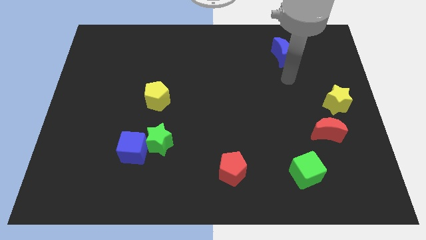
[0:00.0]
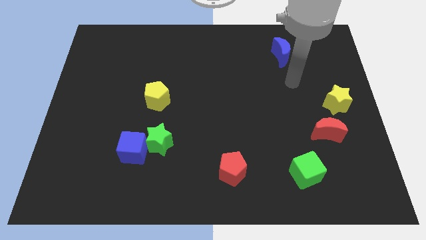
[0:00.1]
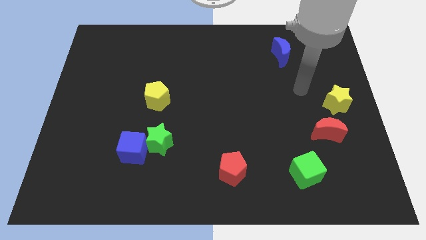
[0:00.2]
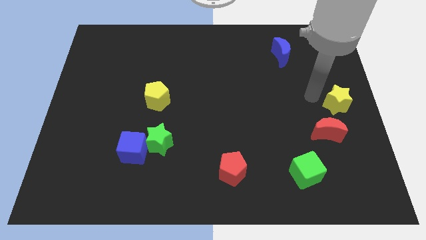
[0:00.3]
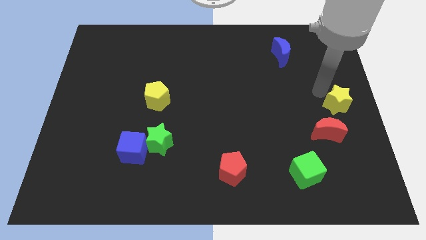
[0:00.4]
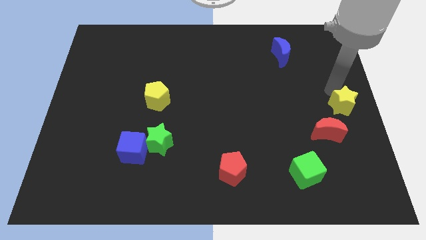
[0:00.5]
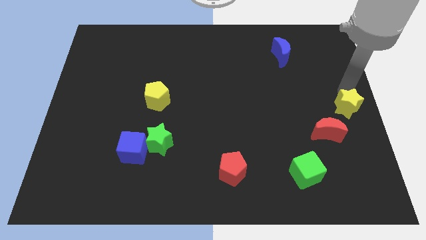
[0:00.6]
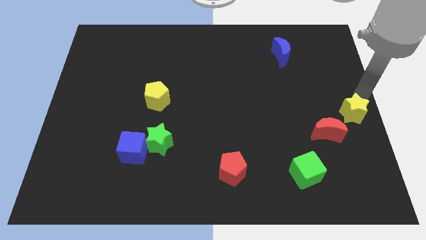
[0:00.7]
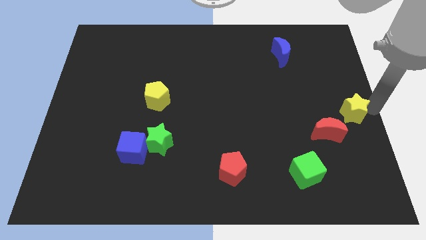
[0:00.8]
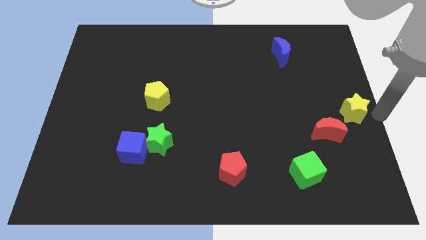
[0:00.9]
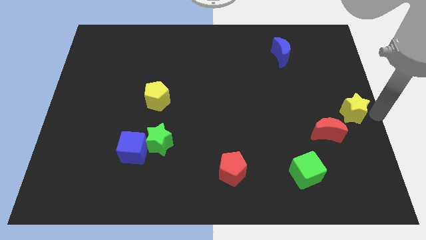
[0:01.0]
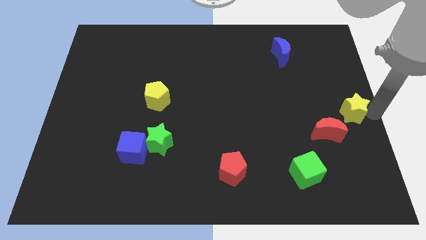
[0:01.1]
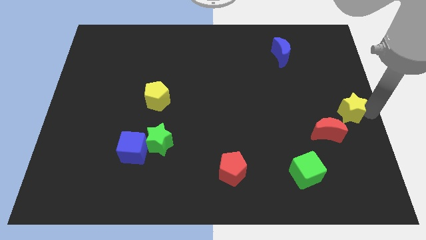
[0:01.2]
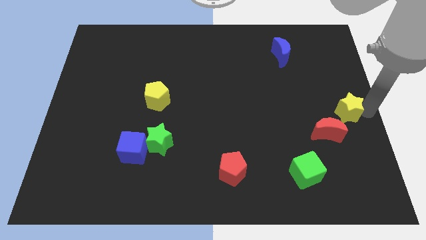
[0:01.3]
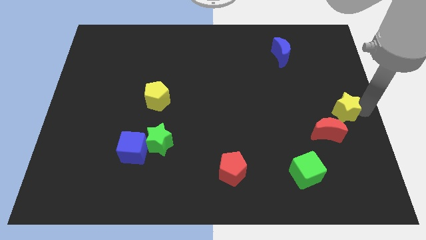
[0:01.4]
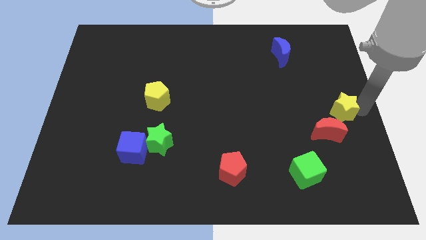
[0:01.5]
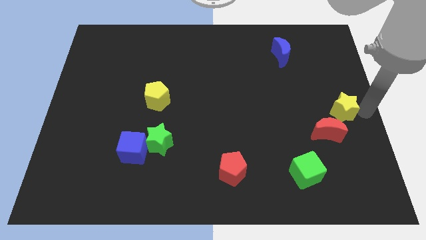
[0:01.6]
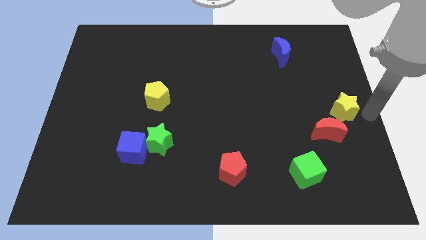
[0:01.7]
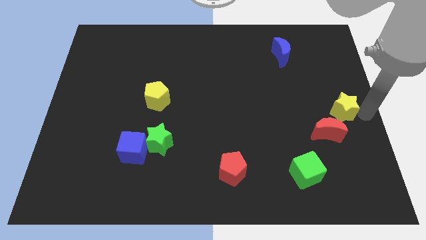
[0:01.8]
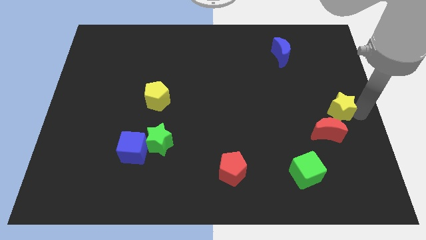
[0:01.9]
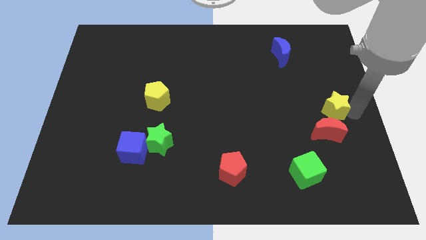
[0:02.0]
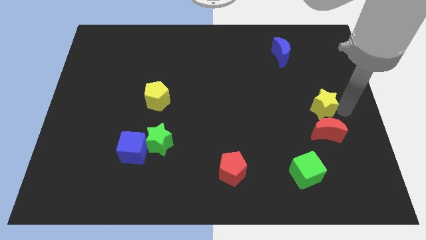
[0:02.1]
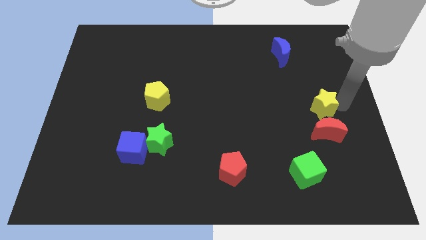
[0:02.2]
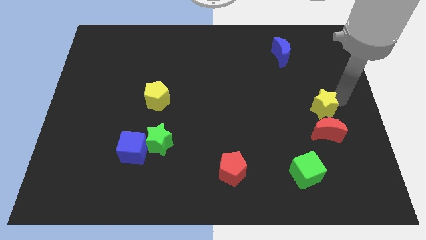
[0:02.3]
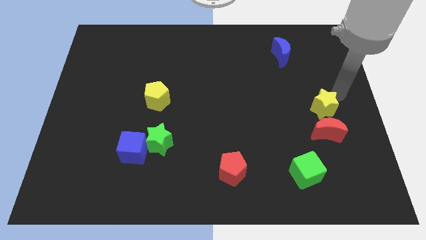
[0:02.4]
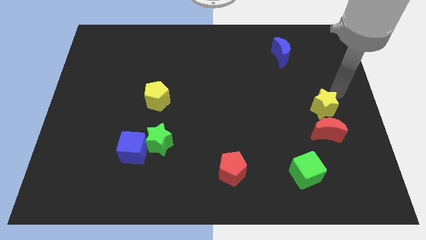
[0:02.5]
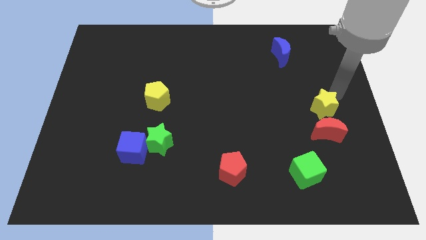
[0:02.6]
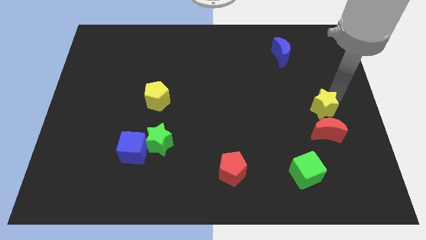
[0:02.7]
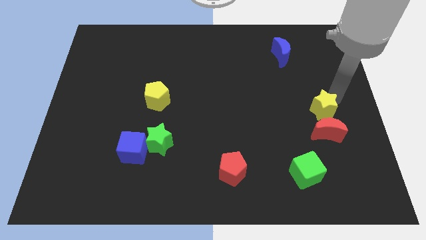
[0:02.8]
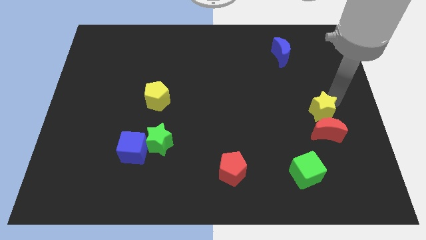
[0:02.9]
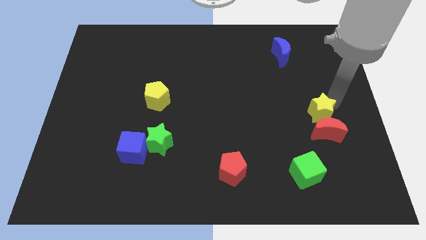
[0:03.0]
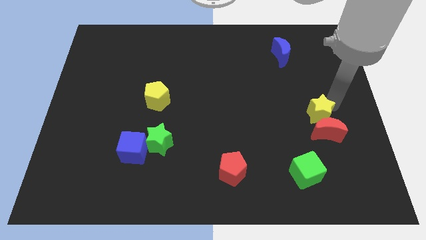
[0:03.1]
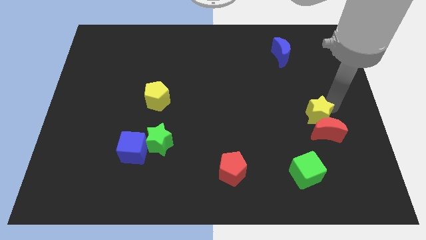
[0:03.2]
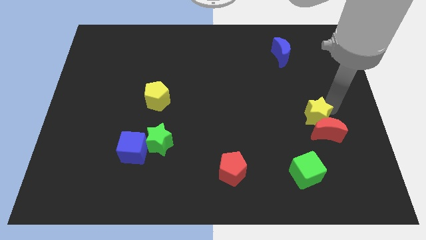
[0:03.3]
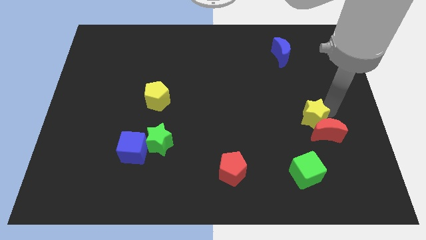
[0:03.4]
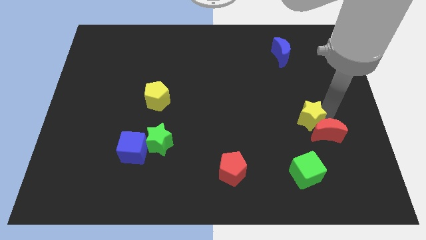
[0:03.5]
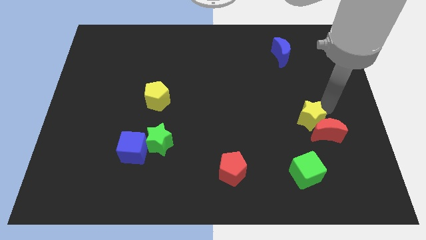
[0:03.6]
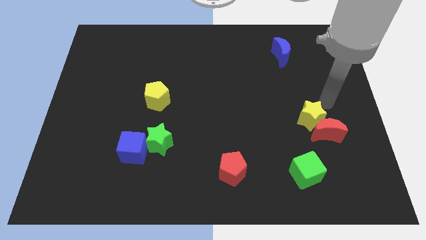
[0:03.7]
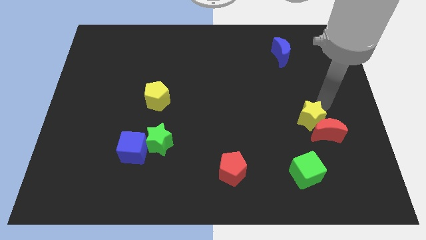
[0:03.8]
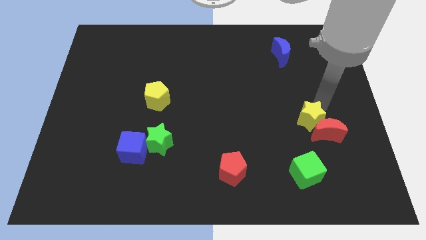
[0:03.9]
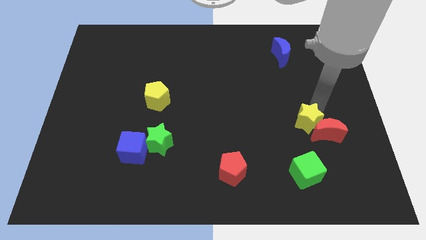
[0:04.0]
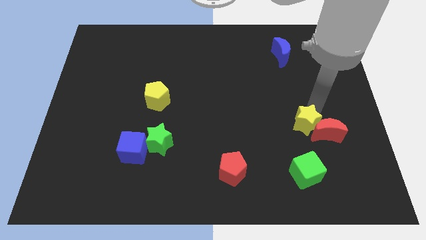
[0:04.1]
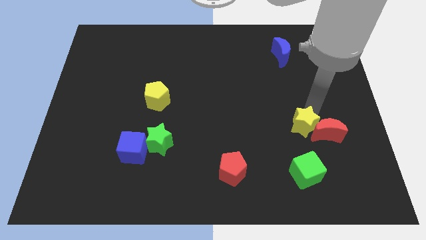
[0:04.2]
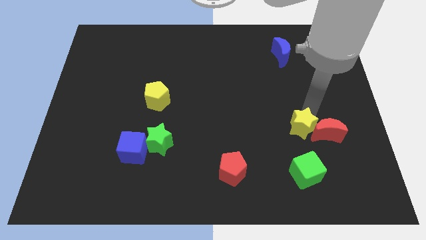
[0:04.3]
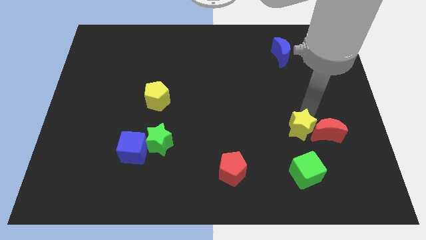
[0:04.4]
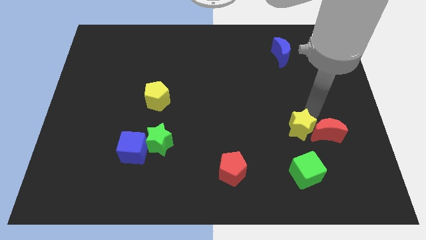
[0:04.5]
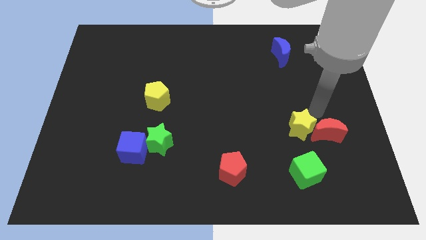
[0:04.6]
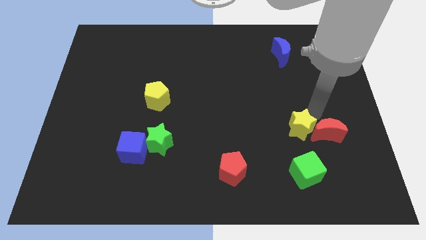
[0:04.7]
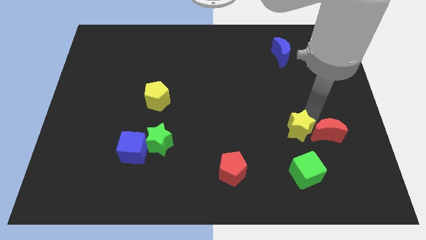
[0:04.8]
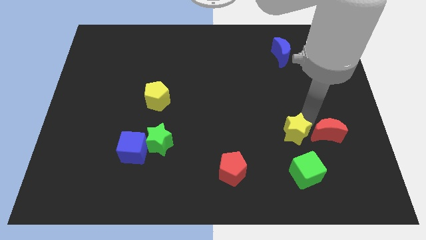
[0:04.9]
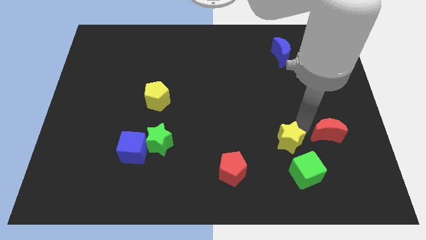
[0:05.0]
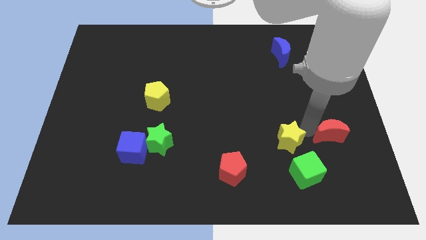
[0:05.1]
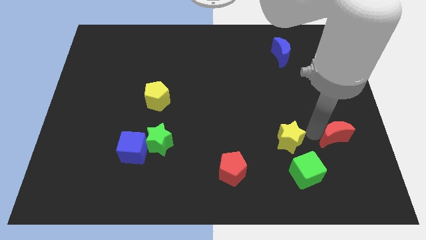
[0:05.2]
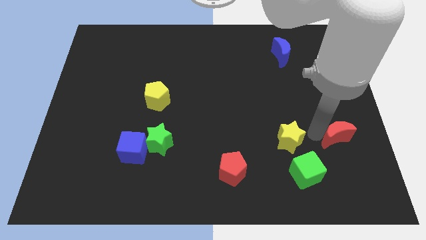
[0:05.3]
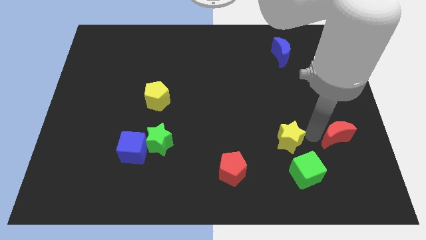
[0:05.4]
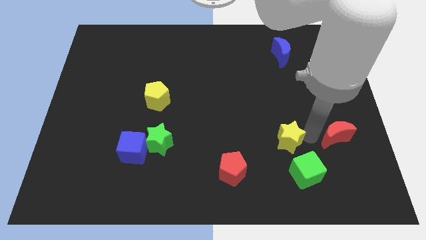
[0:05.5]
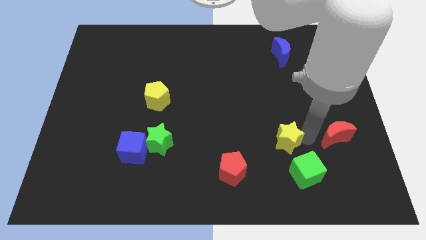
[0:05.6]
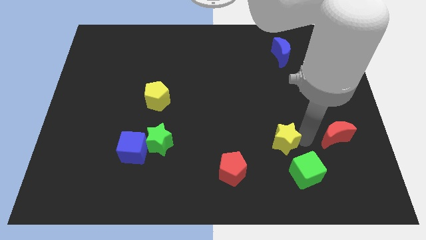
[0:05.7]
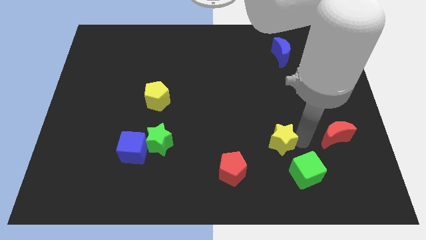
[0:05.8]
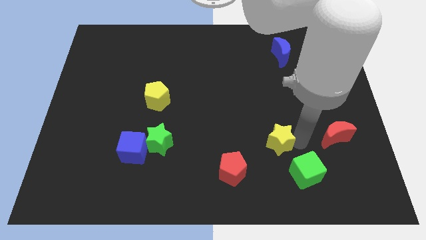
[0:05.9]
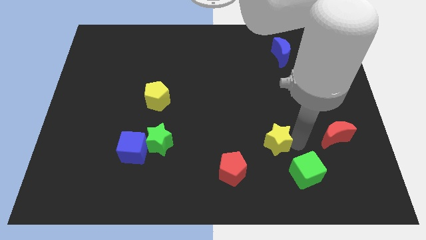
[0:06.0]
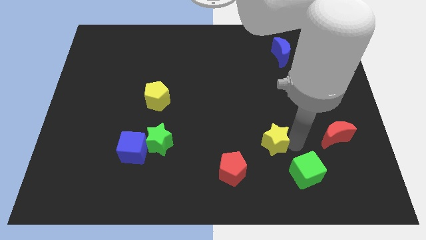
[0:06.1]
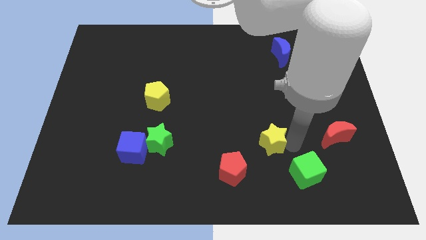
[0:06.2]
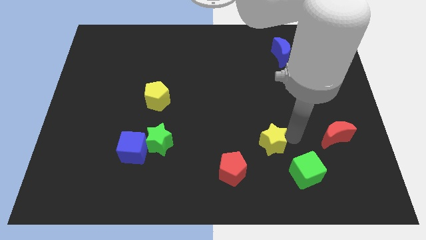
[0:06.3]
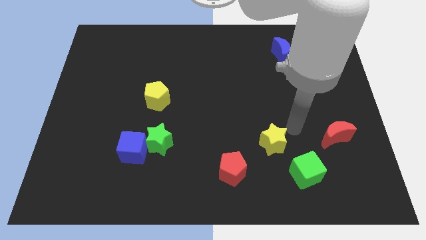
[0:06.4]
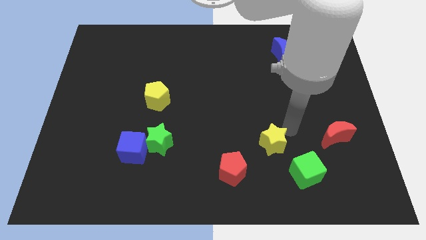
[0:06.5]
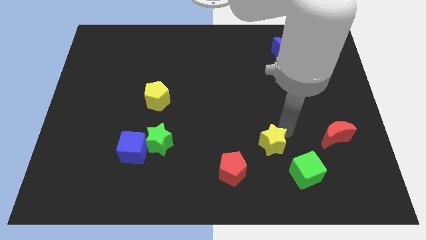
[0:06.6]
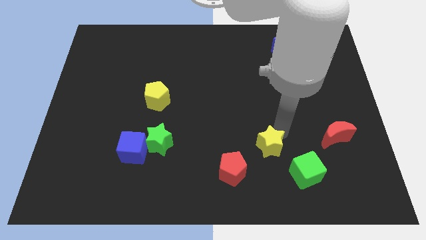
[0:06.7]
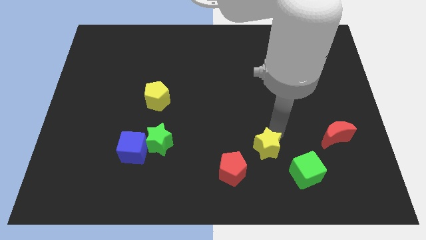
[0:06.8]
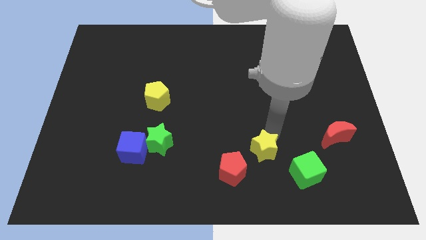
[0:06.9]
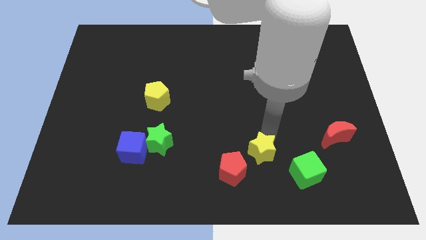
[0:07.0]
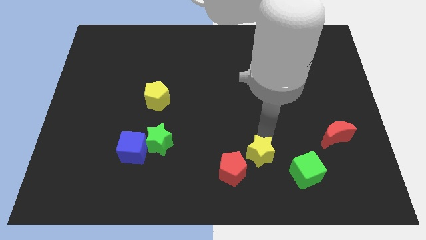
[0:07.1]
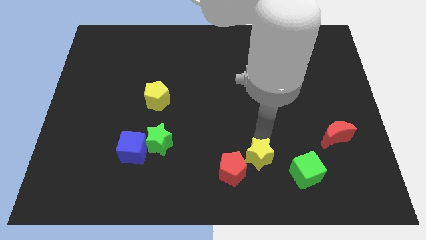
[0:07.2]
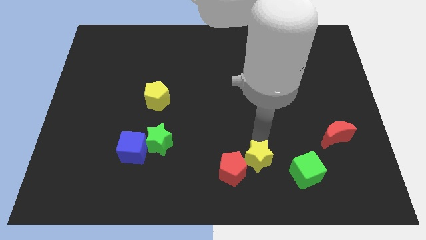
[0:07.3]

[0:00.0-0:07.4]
move the yellow star next to the red pentagon
